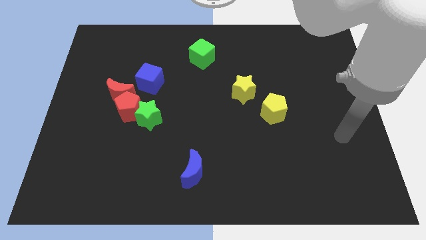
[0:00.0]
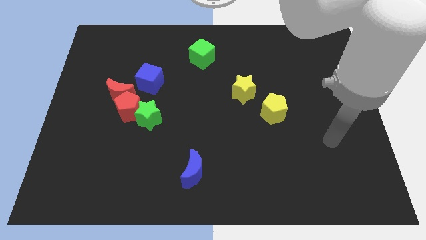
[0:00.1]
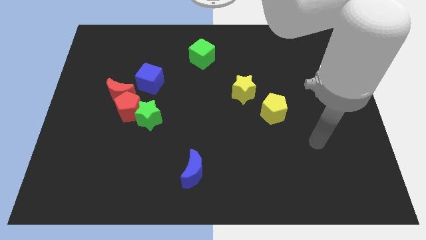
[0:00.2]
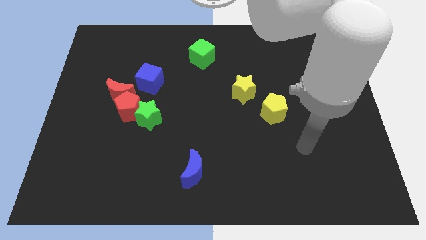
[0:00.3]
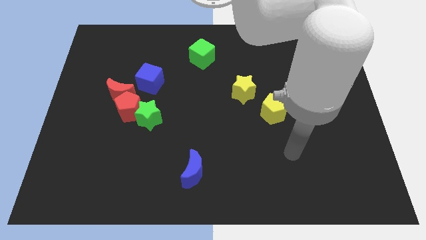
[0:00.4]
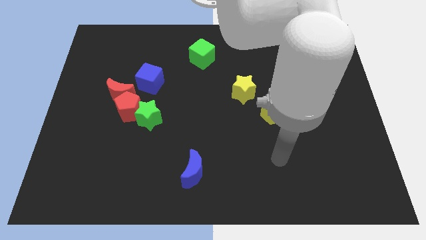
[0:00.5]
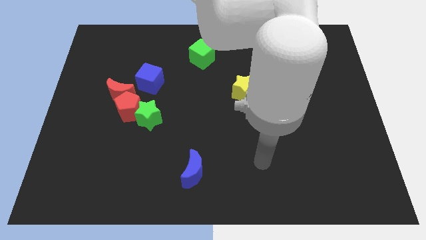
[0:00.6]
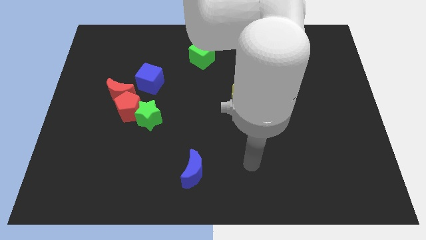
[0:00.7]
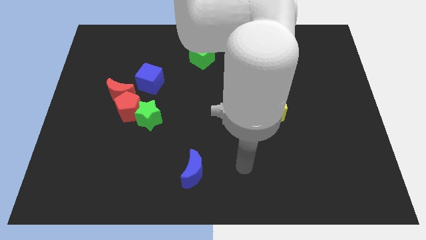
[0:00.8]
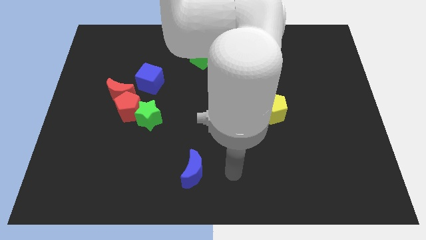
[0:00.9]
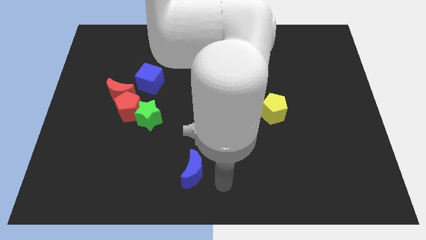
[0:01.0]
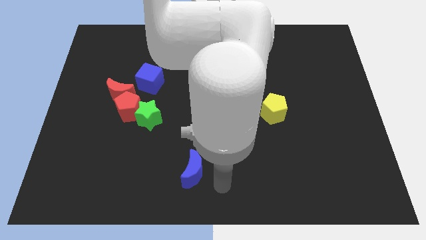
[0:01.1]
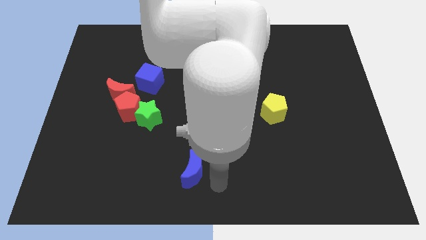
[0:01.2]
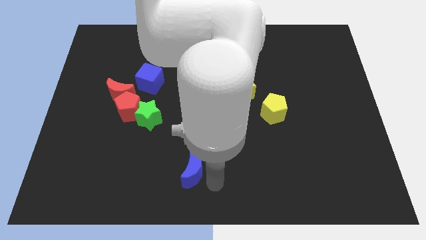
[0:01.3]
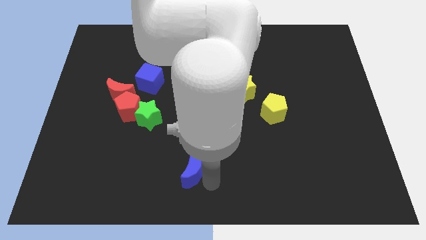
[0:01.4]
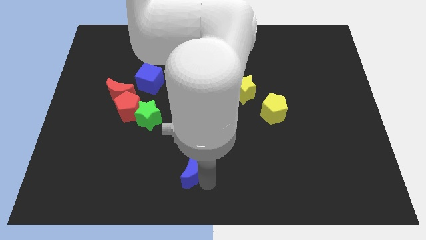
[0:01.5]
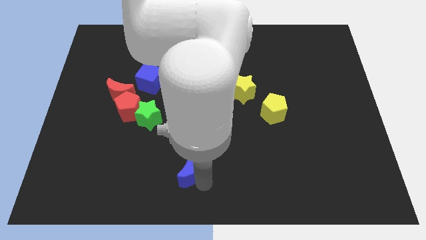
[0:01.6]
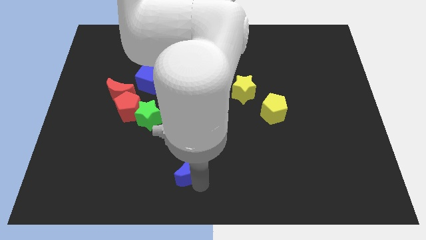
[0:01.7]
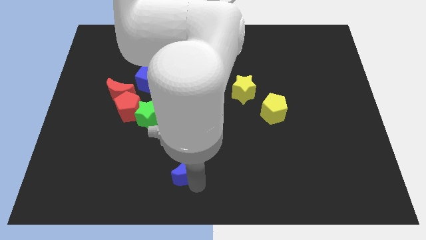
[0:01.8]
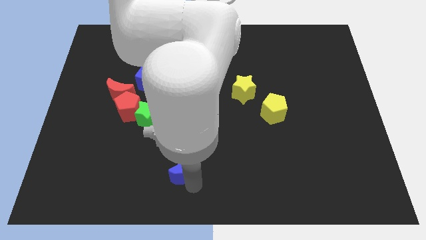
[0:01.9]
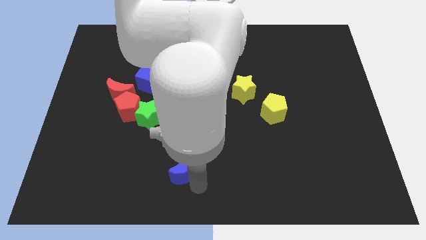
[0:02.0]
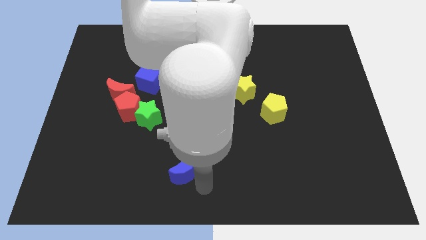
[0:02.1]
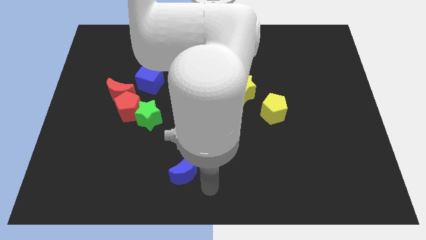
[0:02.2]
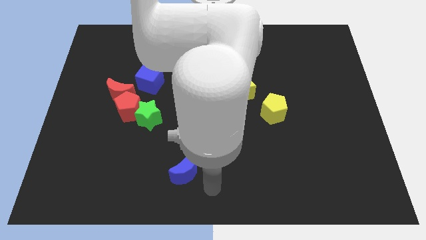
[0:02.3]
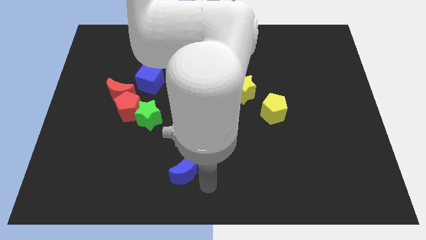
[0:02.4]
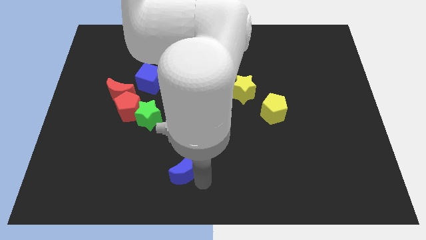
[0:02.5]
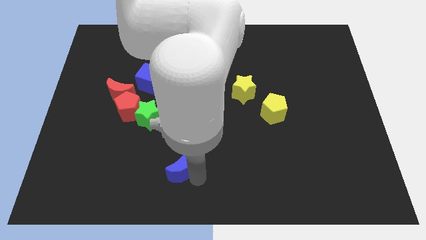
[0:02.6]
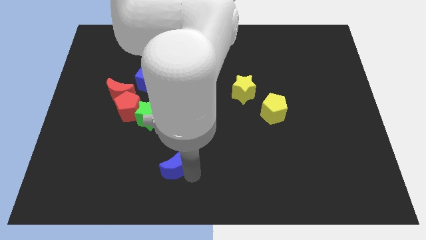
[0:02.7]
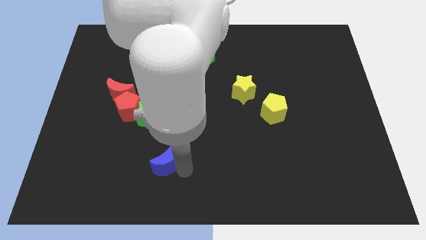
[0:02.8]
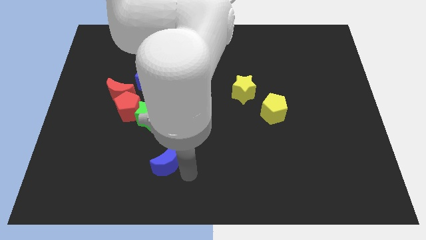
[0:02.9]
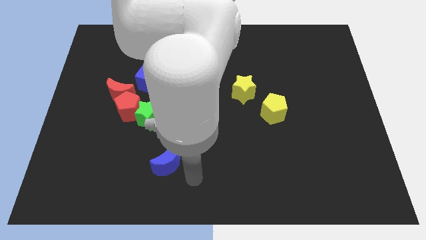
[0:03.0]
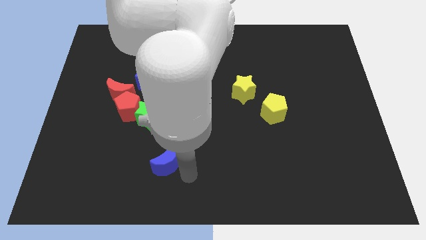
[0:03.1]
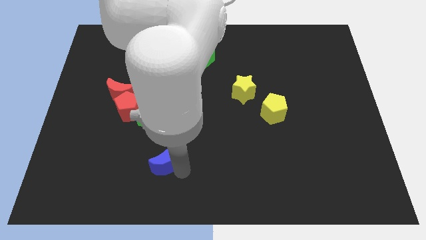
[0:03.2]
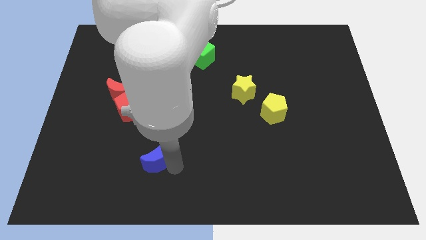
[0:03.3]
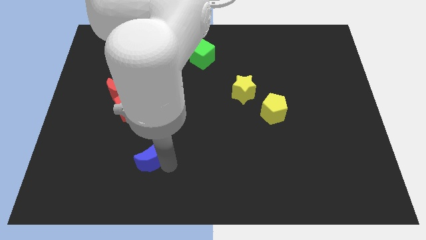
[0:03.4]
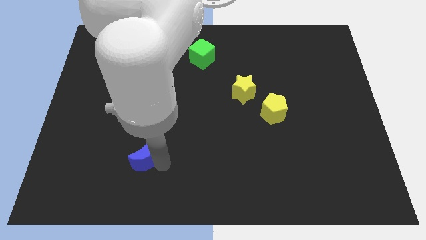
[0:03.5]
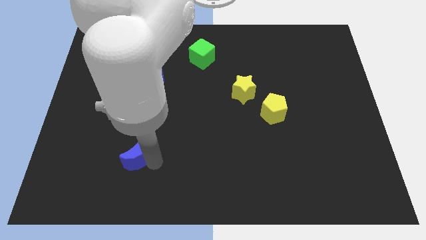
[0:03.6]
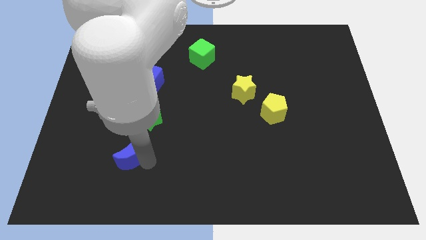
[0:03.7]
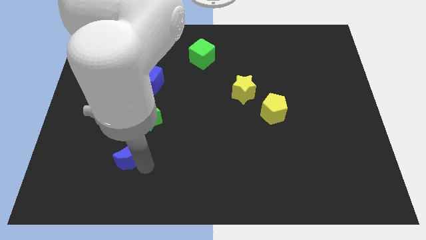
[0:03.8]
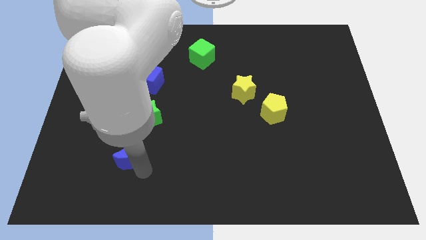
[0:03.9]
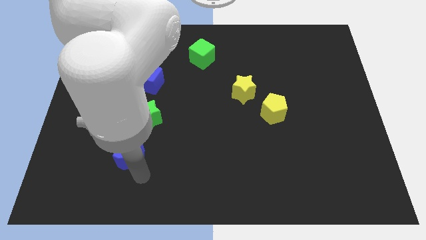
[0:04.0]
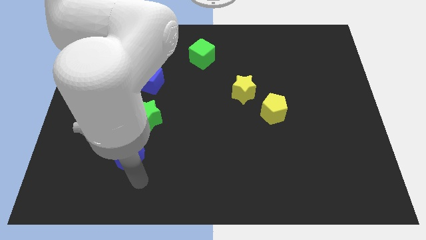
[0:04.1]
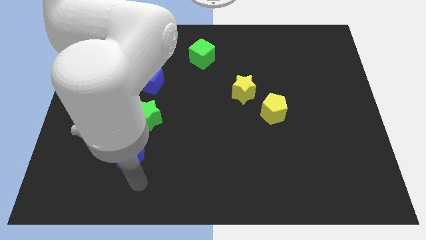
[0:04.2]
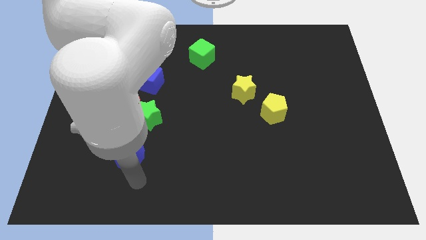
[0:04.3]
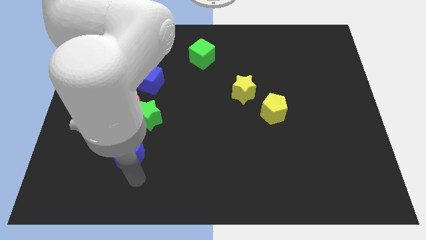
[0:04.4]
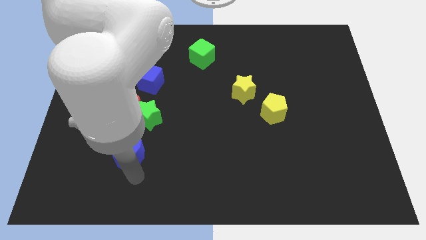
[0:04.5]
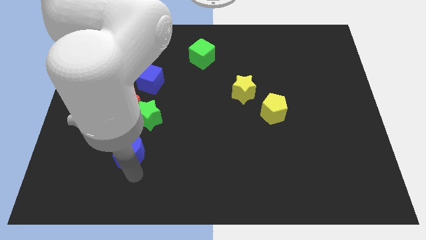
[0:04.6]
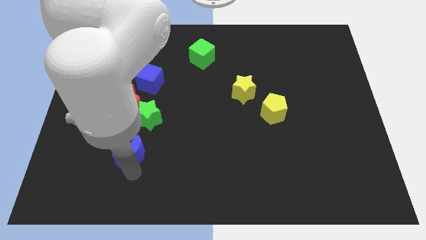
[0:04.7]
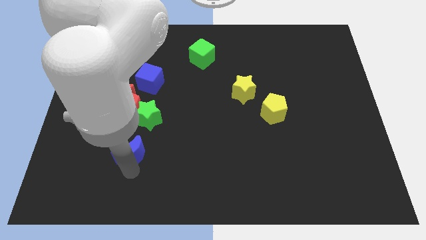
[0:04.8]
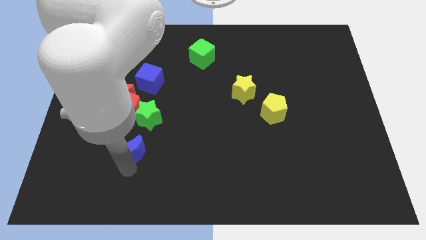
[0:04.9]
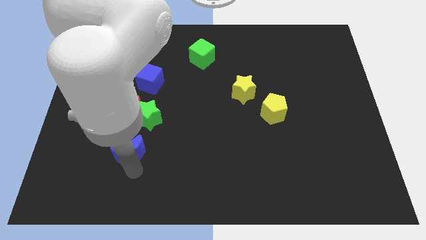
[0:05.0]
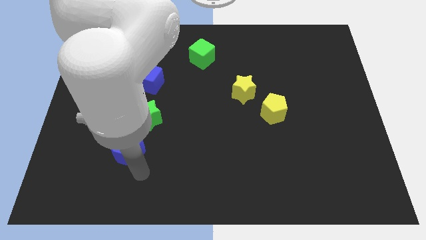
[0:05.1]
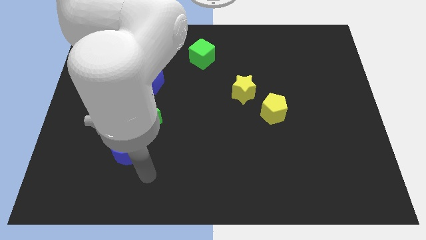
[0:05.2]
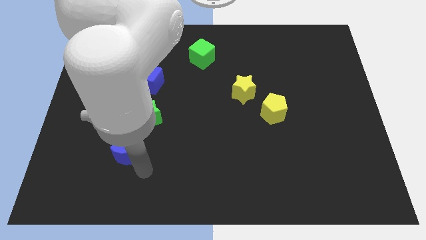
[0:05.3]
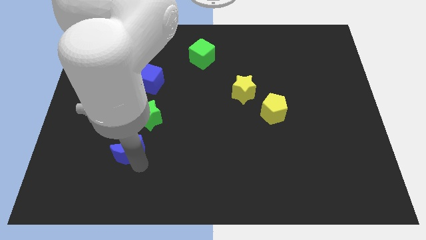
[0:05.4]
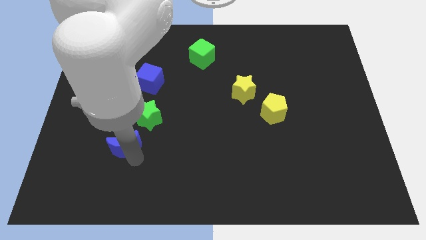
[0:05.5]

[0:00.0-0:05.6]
put the blue moon below the red moon
